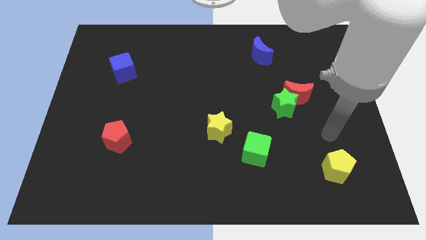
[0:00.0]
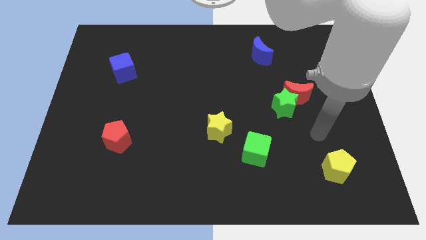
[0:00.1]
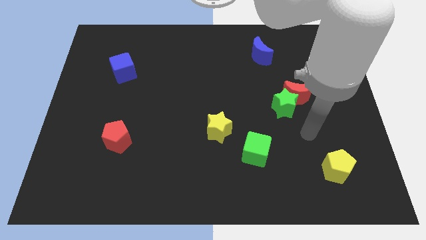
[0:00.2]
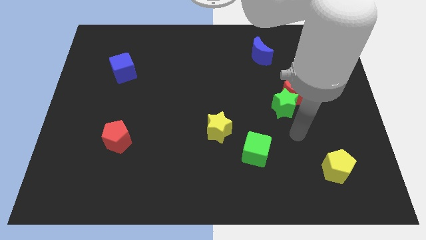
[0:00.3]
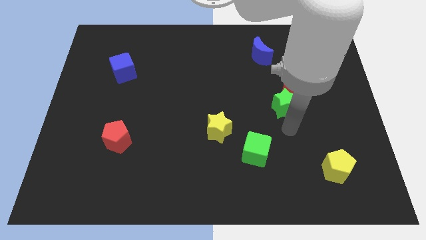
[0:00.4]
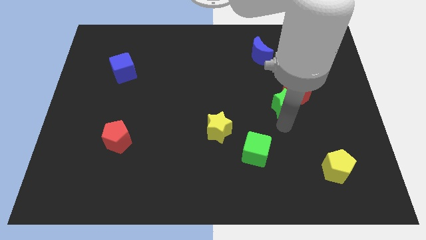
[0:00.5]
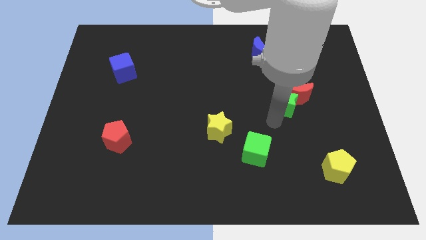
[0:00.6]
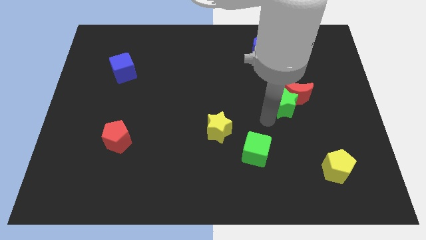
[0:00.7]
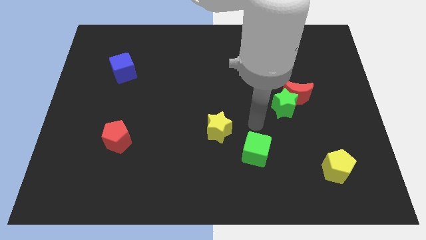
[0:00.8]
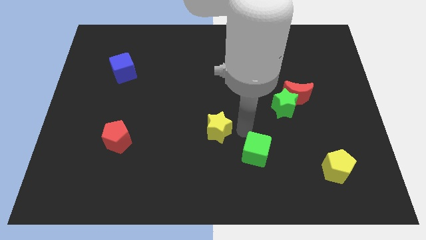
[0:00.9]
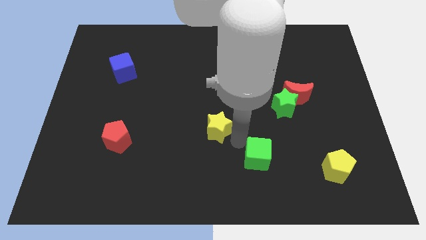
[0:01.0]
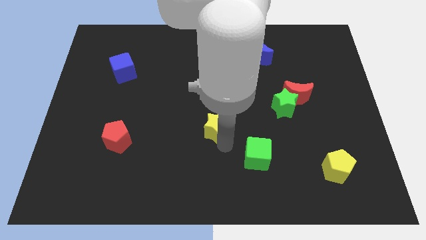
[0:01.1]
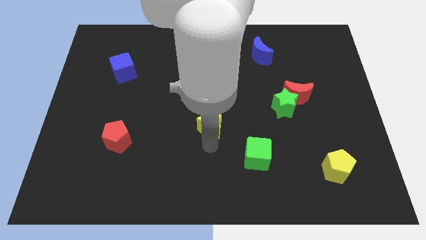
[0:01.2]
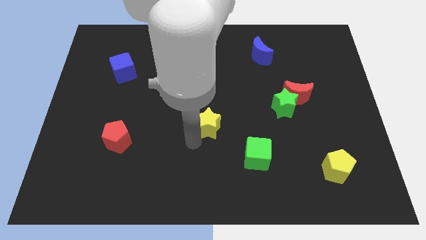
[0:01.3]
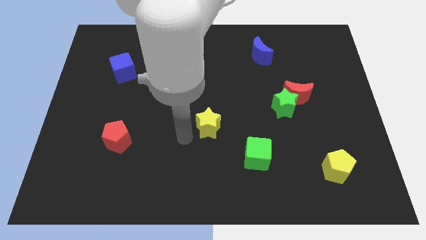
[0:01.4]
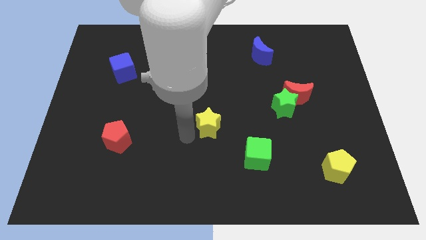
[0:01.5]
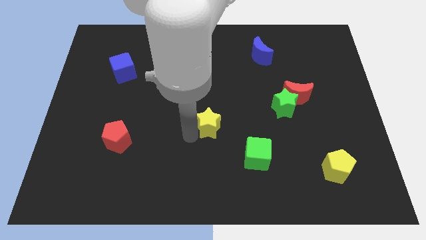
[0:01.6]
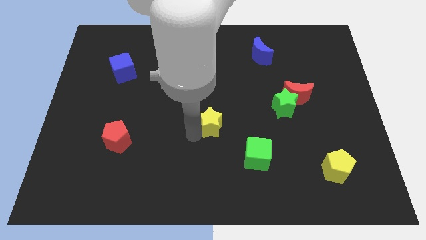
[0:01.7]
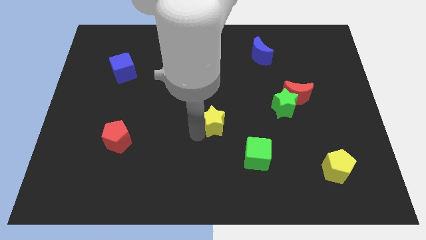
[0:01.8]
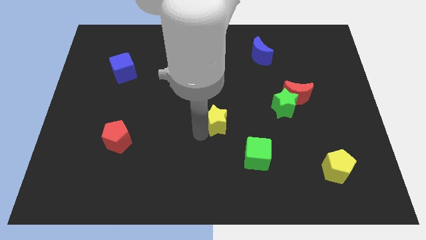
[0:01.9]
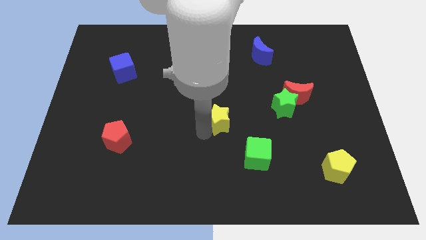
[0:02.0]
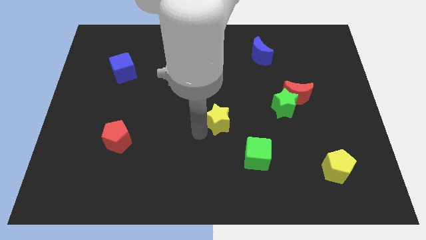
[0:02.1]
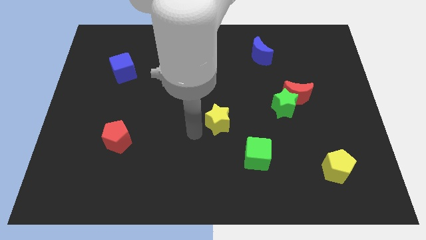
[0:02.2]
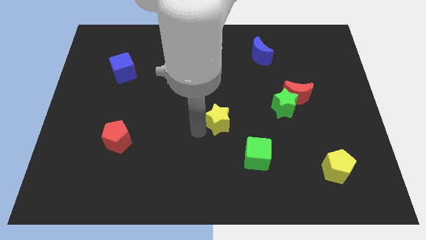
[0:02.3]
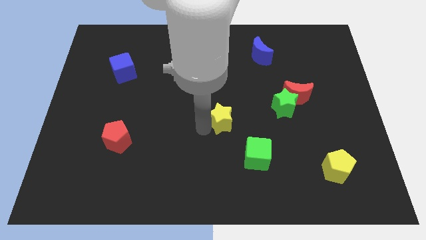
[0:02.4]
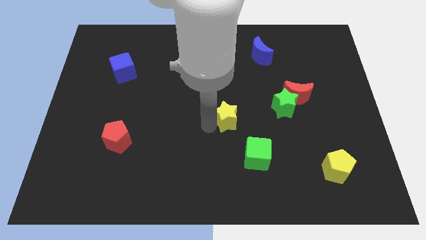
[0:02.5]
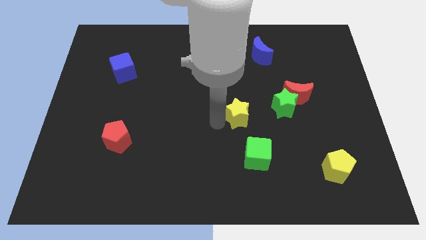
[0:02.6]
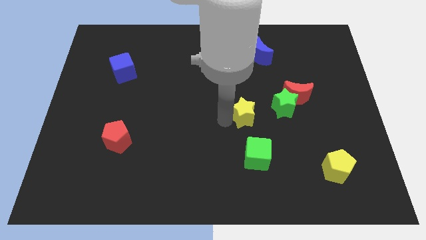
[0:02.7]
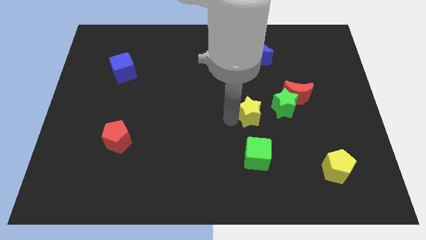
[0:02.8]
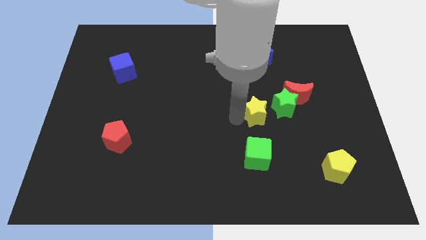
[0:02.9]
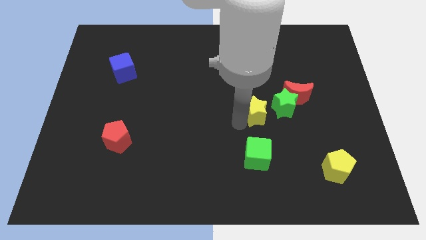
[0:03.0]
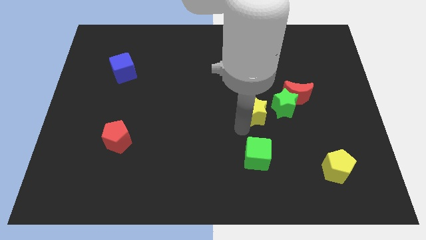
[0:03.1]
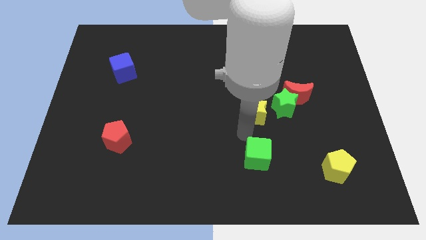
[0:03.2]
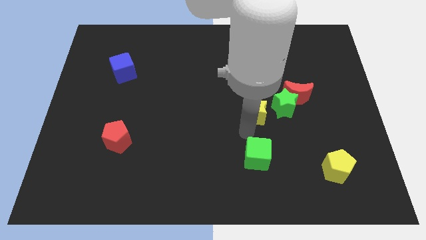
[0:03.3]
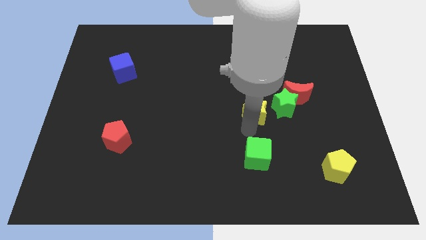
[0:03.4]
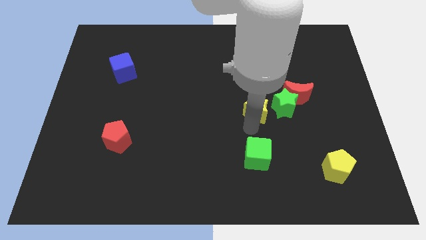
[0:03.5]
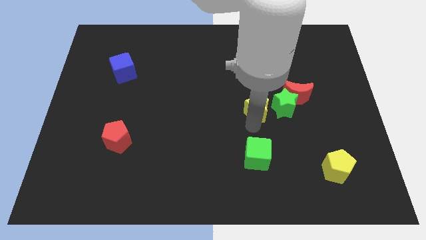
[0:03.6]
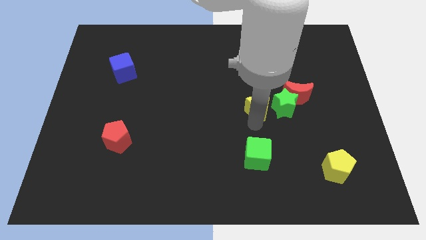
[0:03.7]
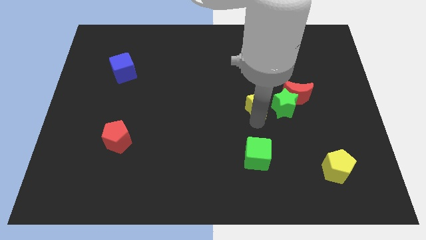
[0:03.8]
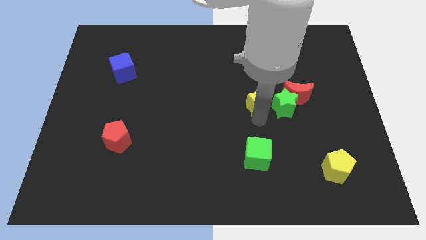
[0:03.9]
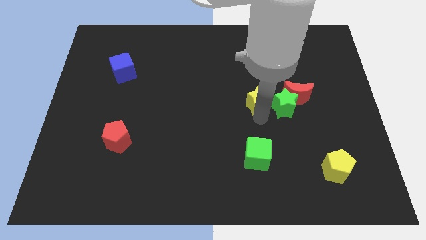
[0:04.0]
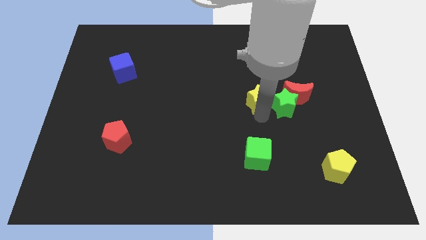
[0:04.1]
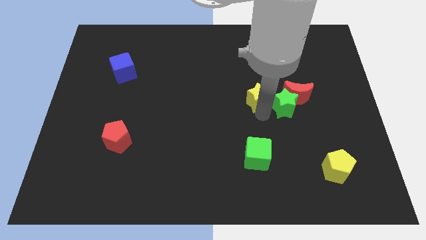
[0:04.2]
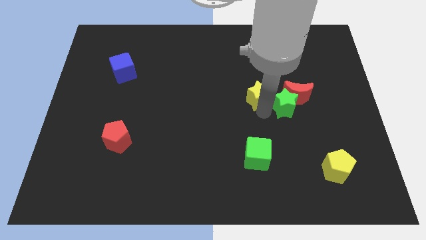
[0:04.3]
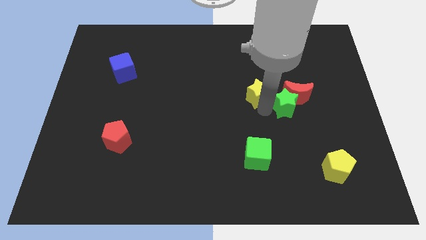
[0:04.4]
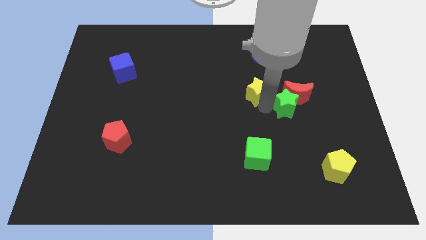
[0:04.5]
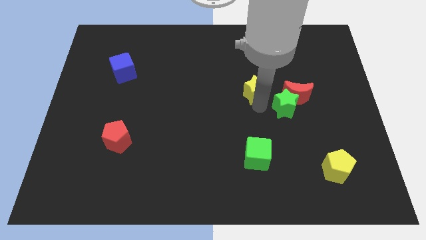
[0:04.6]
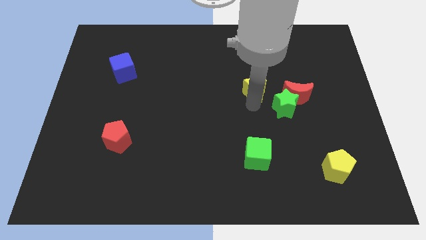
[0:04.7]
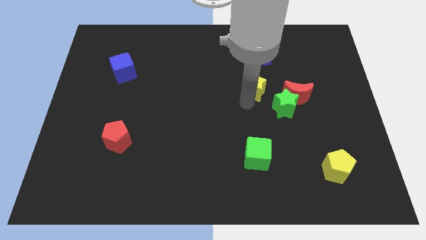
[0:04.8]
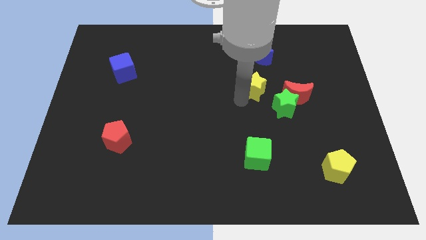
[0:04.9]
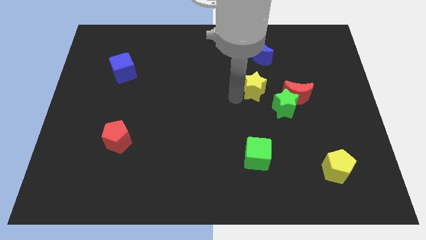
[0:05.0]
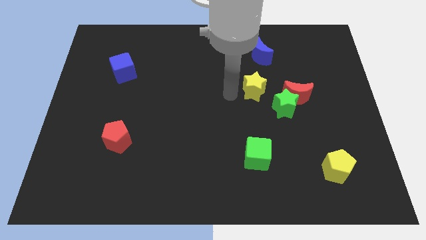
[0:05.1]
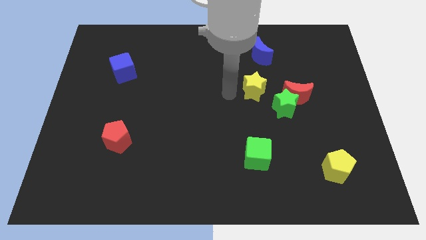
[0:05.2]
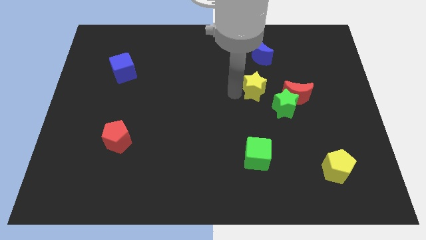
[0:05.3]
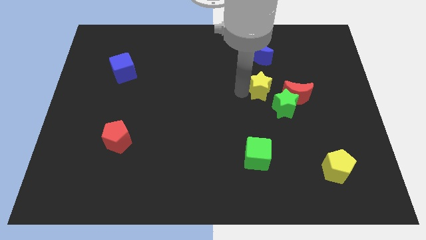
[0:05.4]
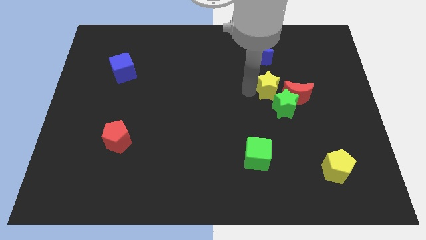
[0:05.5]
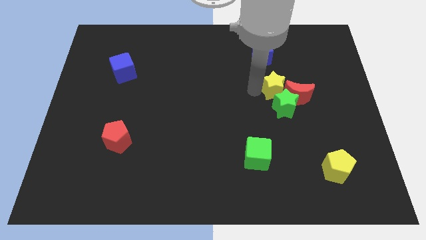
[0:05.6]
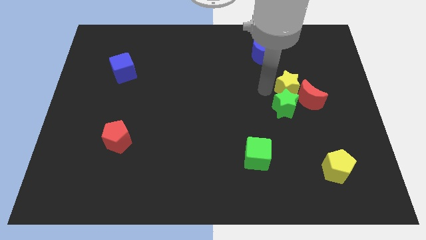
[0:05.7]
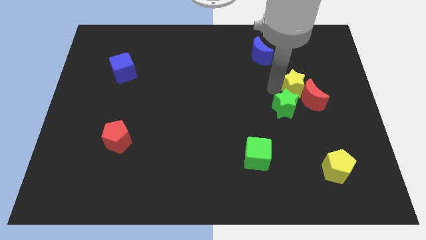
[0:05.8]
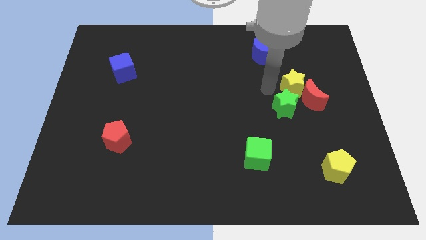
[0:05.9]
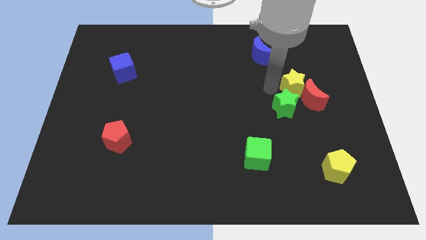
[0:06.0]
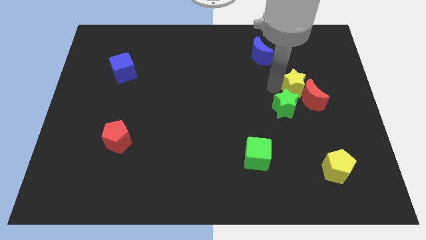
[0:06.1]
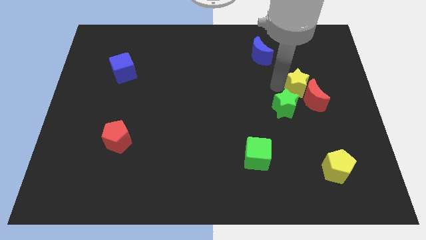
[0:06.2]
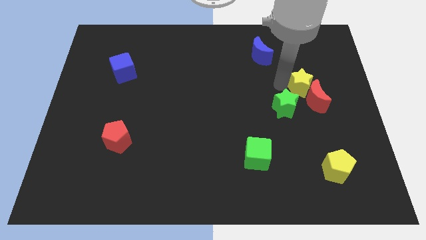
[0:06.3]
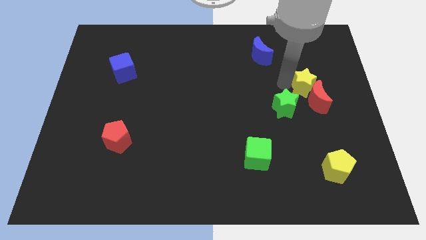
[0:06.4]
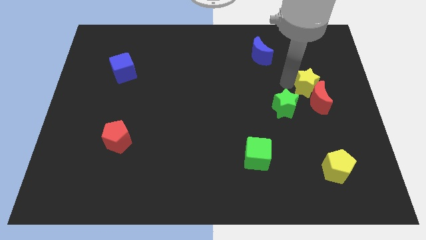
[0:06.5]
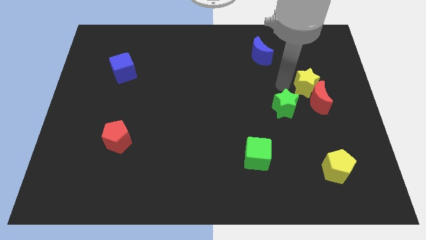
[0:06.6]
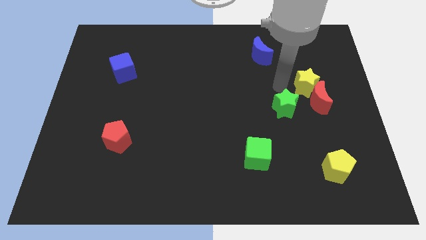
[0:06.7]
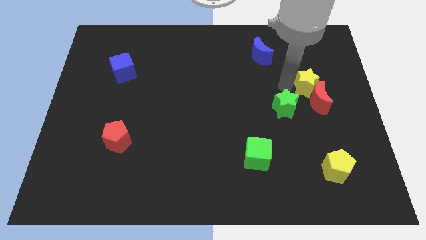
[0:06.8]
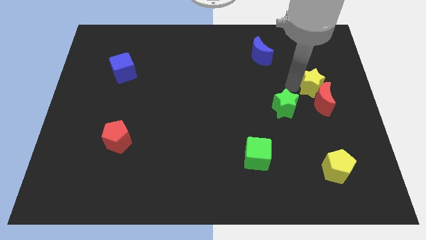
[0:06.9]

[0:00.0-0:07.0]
slide the yellow star to the top right side of the red moon
